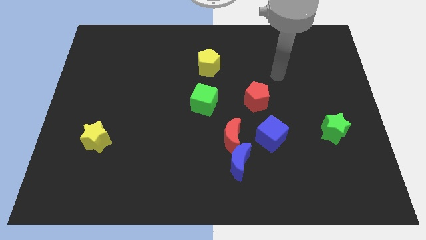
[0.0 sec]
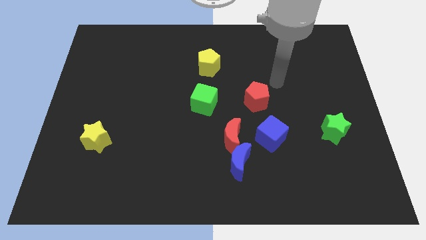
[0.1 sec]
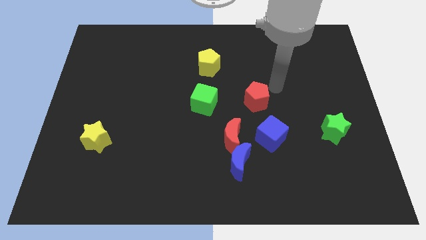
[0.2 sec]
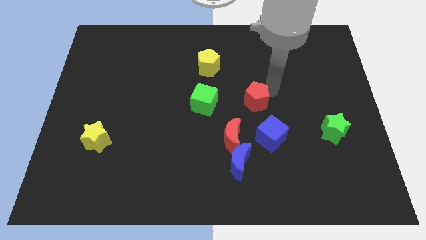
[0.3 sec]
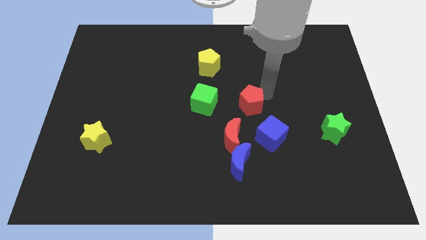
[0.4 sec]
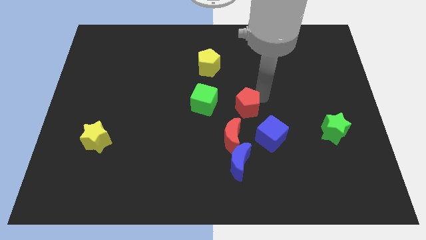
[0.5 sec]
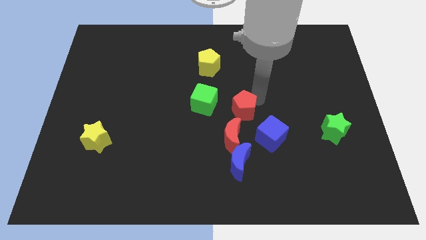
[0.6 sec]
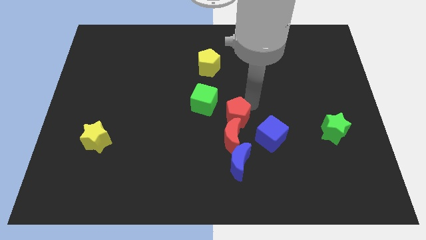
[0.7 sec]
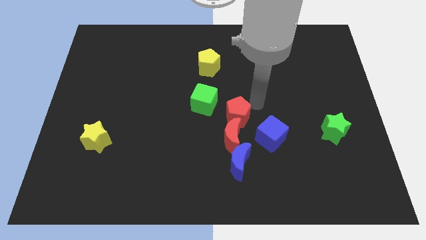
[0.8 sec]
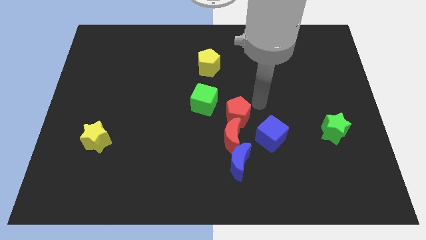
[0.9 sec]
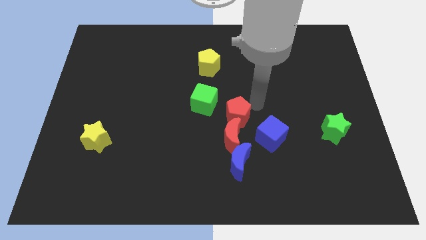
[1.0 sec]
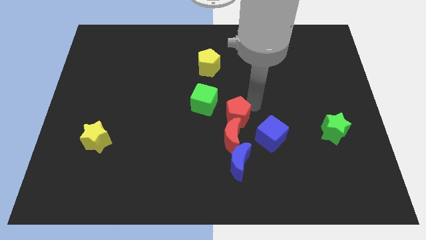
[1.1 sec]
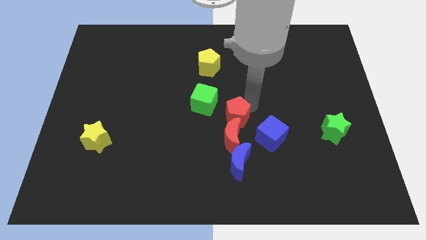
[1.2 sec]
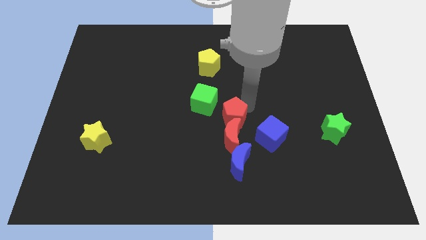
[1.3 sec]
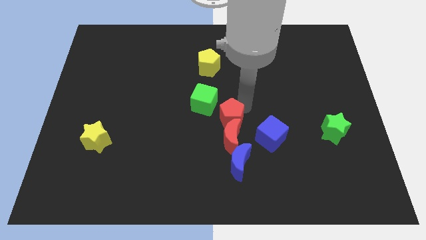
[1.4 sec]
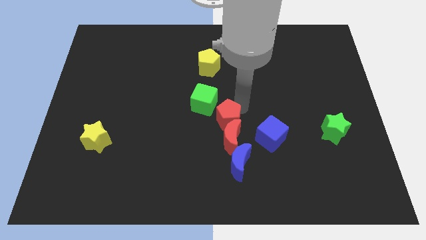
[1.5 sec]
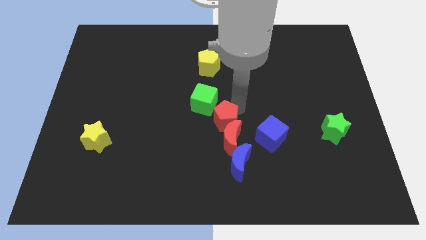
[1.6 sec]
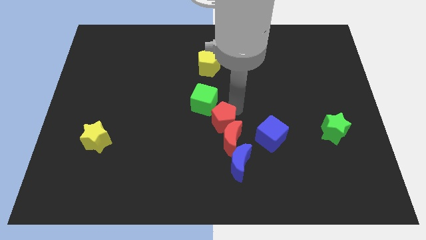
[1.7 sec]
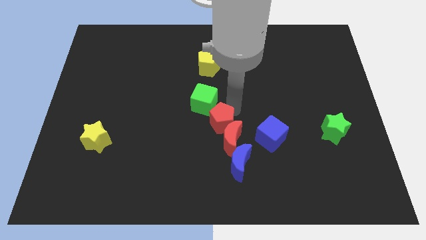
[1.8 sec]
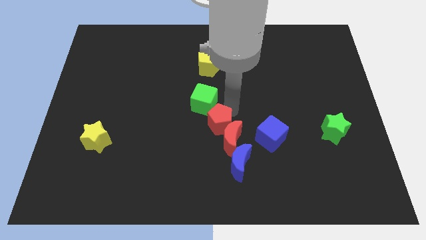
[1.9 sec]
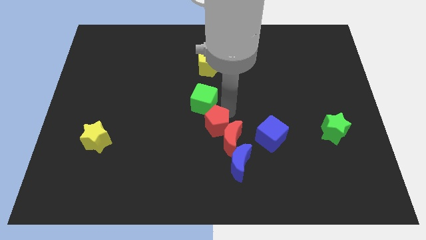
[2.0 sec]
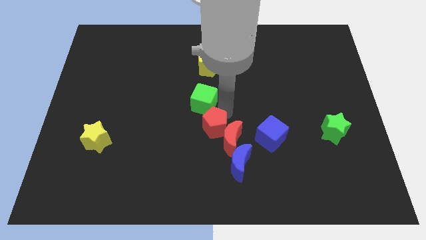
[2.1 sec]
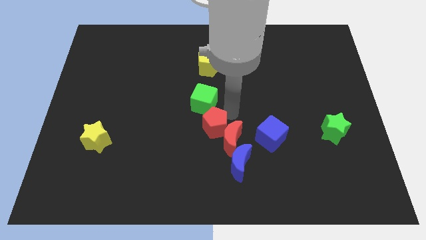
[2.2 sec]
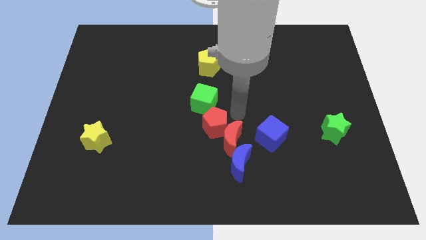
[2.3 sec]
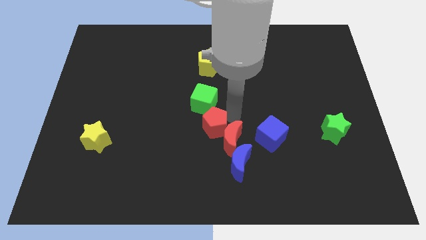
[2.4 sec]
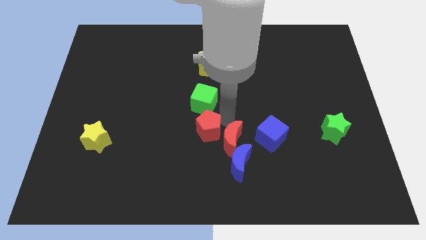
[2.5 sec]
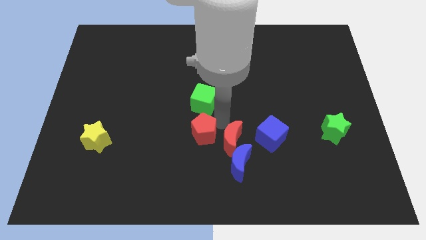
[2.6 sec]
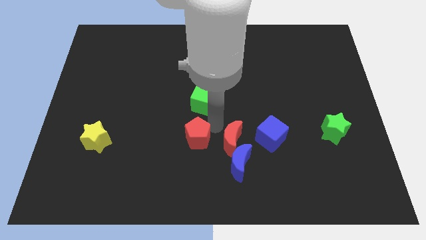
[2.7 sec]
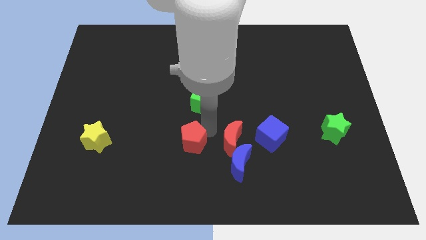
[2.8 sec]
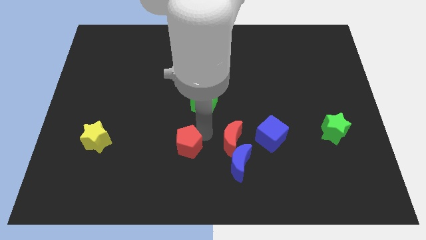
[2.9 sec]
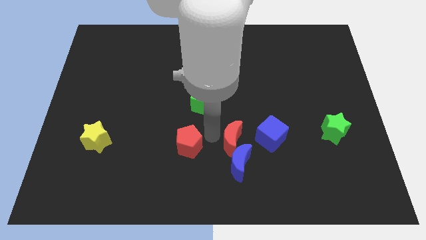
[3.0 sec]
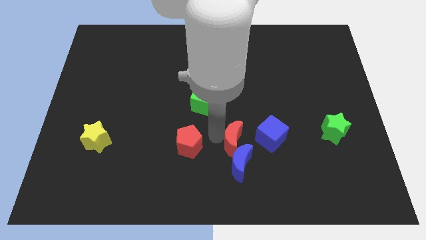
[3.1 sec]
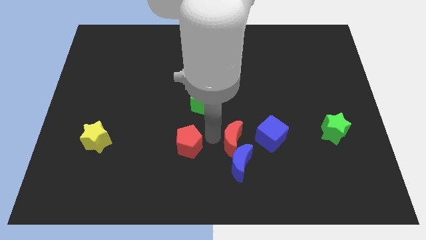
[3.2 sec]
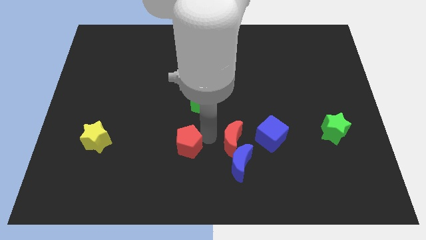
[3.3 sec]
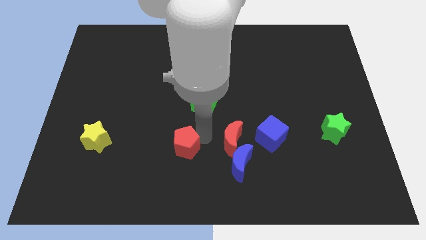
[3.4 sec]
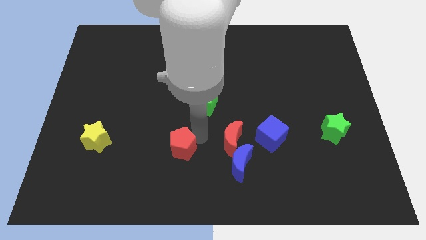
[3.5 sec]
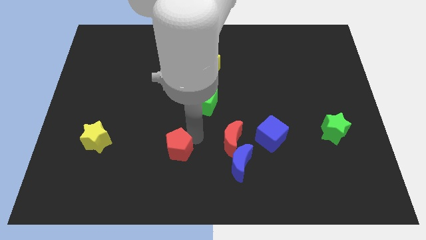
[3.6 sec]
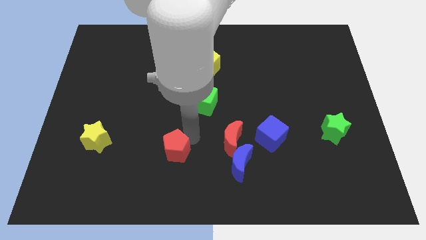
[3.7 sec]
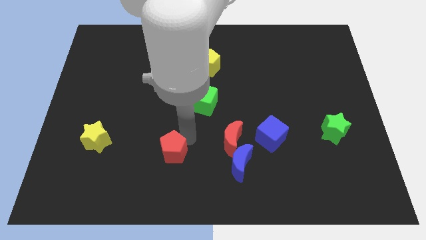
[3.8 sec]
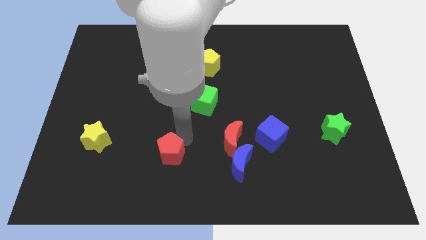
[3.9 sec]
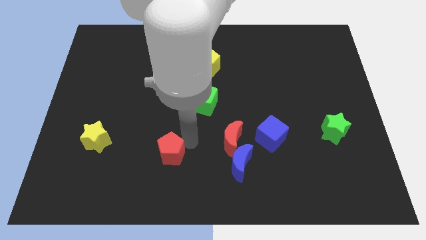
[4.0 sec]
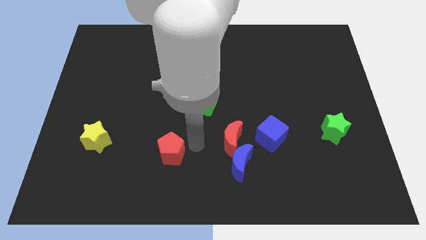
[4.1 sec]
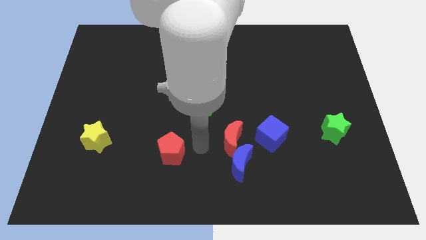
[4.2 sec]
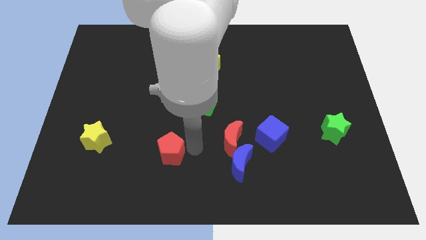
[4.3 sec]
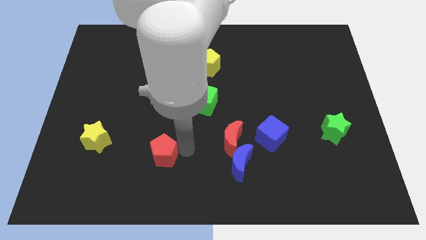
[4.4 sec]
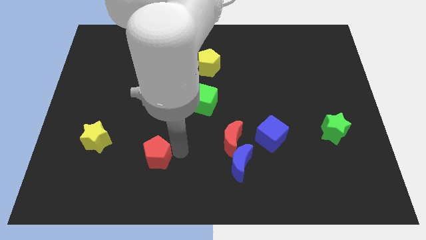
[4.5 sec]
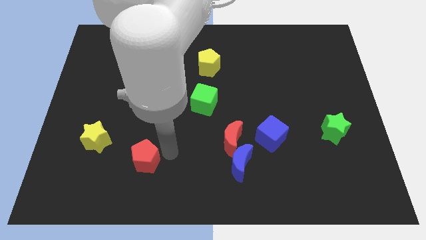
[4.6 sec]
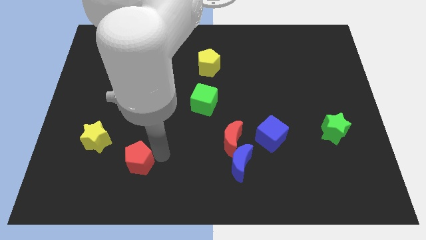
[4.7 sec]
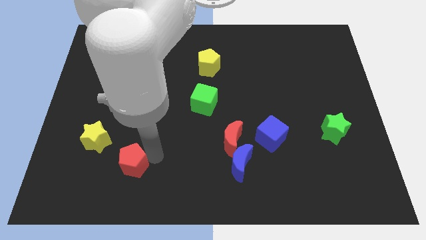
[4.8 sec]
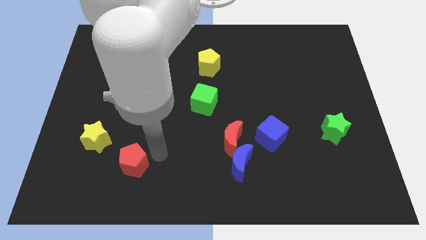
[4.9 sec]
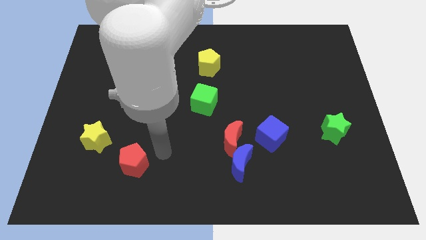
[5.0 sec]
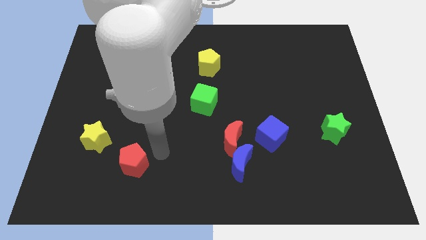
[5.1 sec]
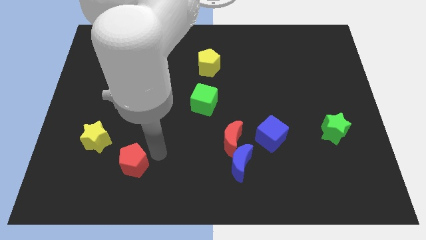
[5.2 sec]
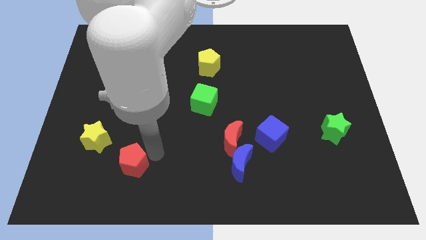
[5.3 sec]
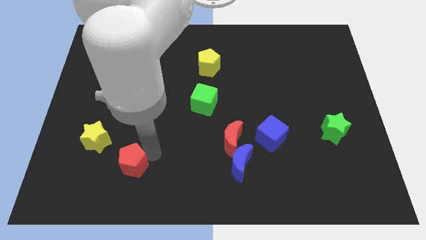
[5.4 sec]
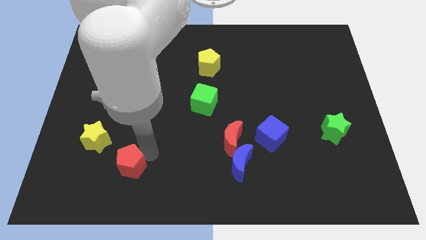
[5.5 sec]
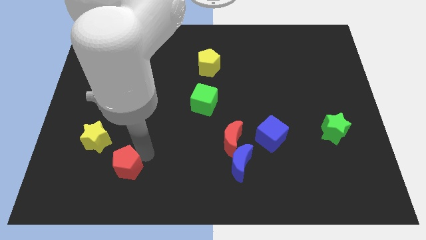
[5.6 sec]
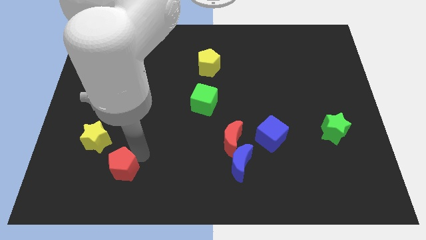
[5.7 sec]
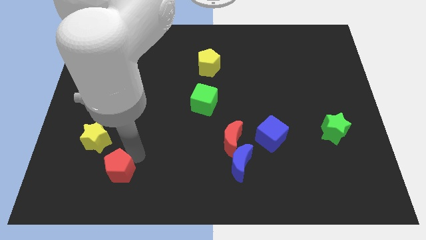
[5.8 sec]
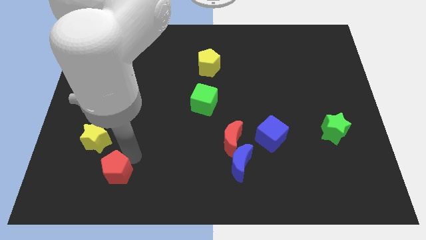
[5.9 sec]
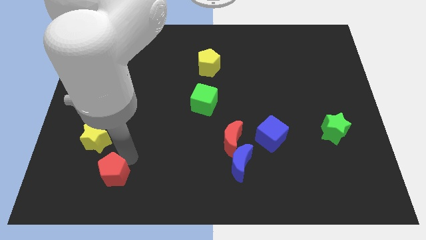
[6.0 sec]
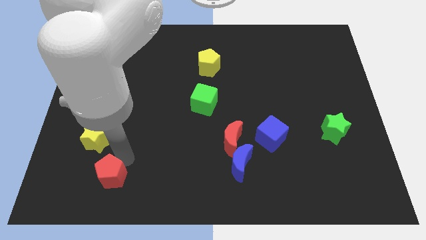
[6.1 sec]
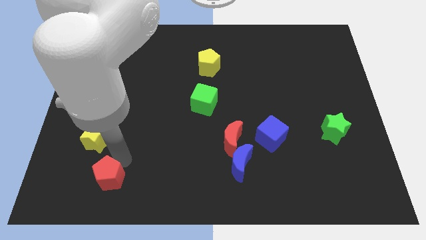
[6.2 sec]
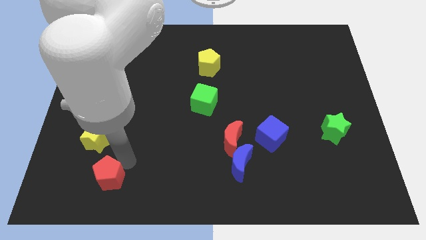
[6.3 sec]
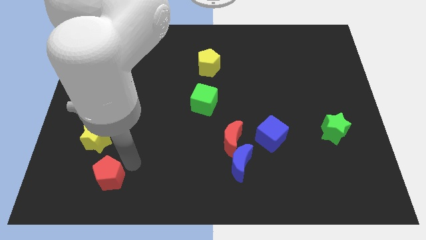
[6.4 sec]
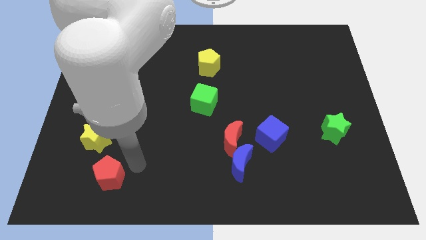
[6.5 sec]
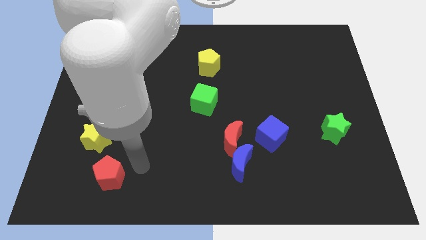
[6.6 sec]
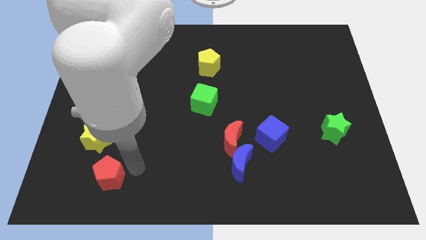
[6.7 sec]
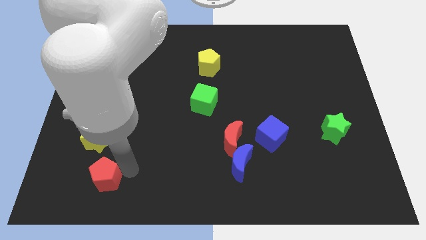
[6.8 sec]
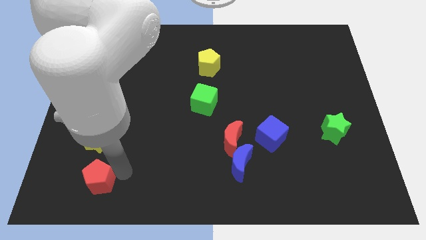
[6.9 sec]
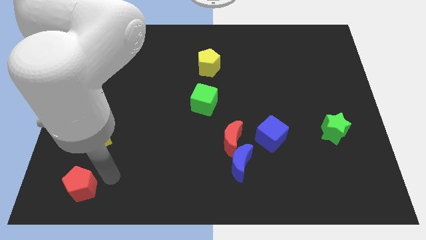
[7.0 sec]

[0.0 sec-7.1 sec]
push the red pentagon to the bottom left of the board
